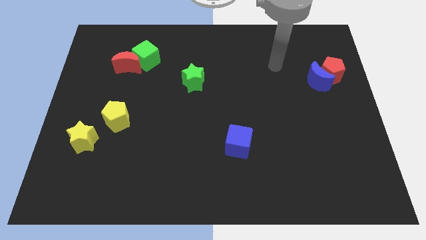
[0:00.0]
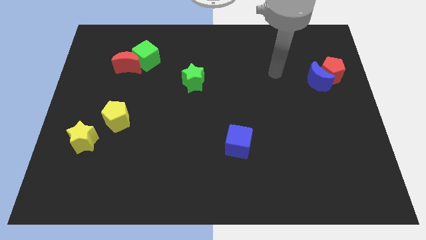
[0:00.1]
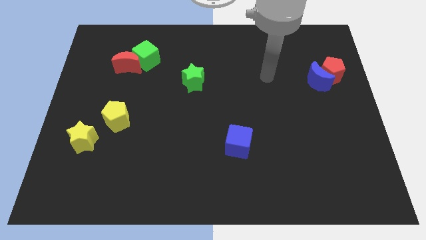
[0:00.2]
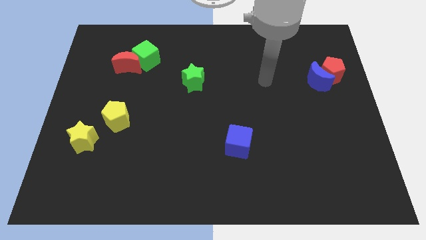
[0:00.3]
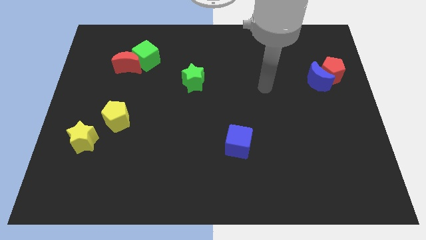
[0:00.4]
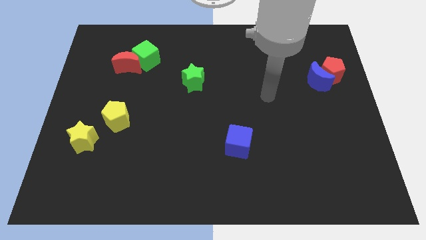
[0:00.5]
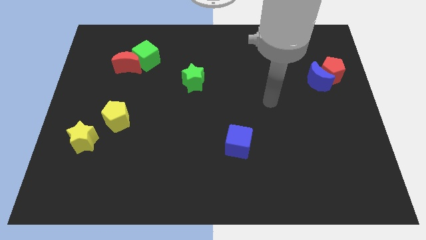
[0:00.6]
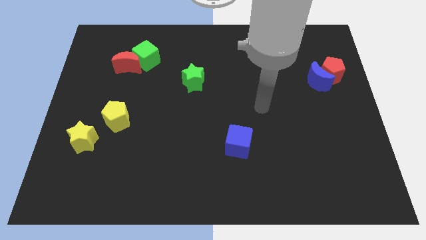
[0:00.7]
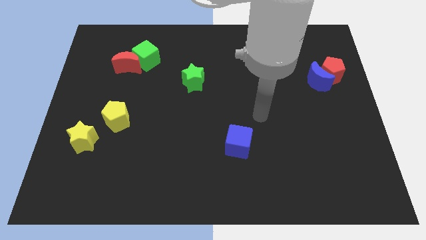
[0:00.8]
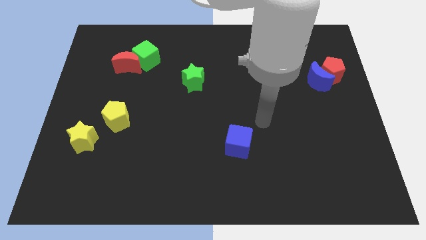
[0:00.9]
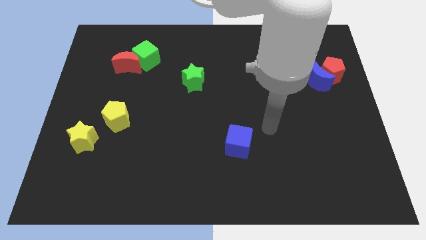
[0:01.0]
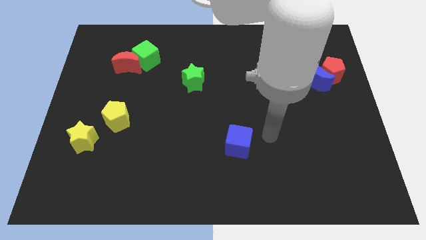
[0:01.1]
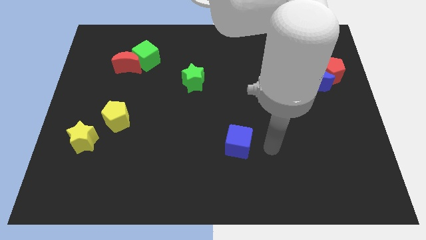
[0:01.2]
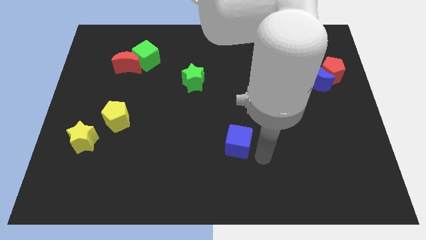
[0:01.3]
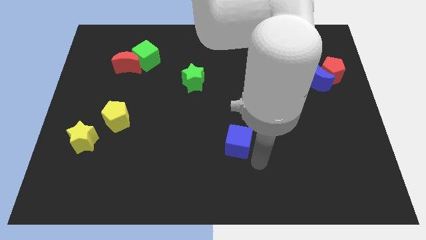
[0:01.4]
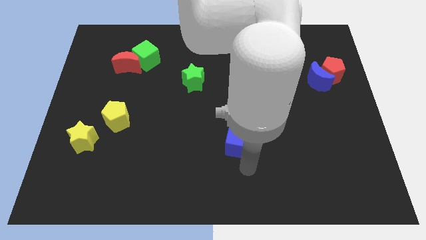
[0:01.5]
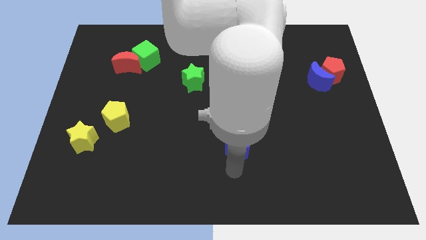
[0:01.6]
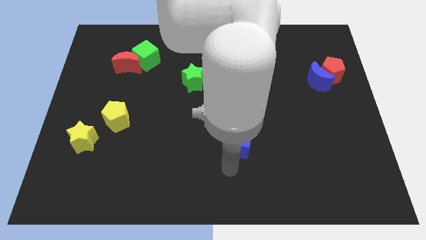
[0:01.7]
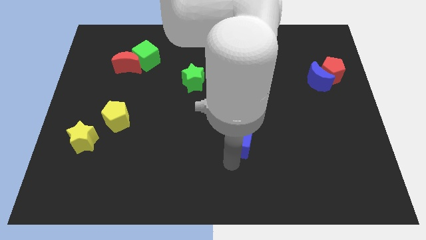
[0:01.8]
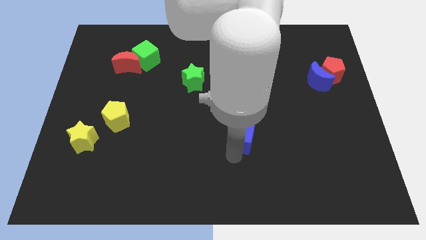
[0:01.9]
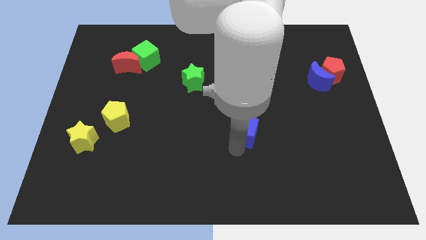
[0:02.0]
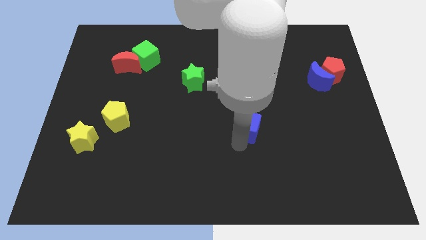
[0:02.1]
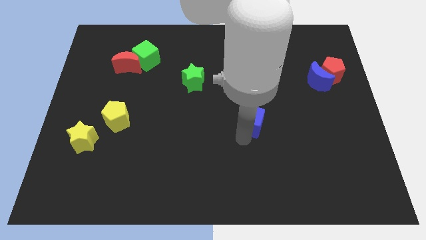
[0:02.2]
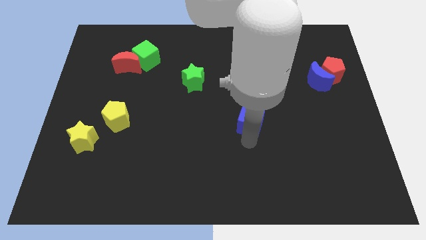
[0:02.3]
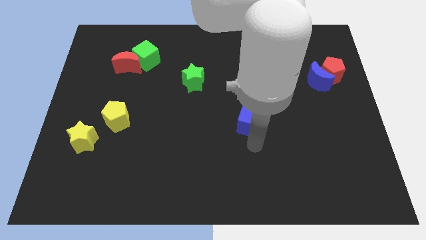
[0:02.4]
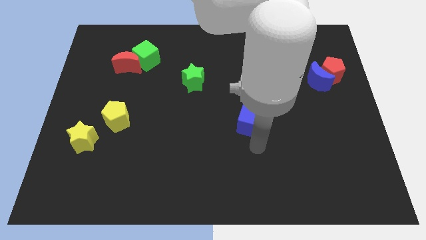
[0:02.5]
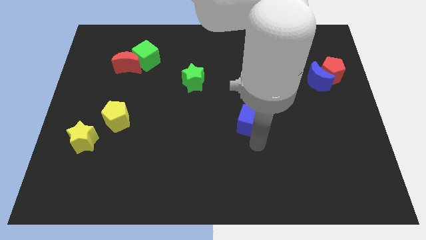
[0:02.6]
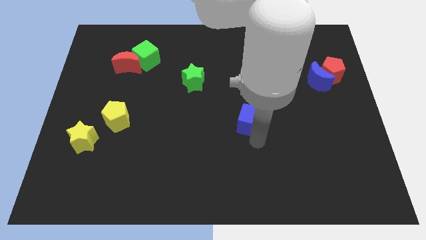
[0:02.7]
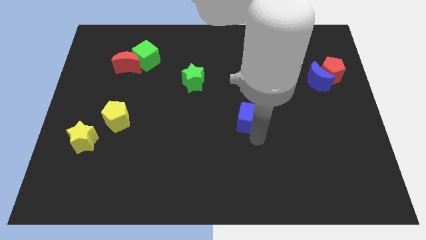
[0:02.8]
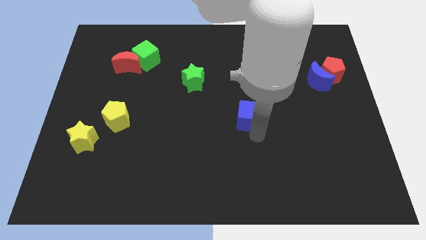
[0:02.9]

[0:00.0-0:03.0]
slightly slide the blue cube up

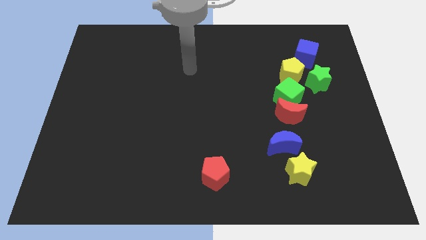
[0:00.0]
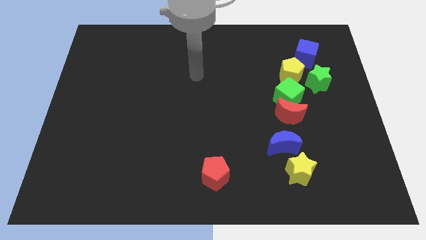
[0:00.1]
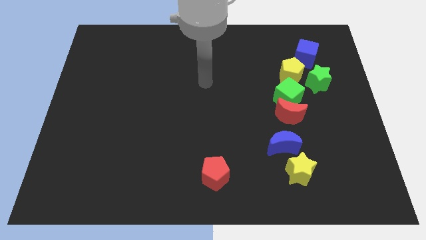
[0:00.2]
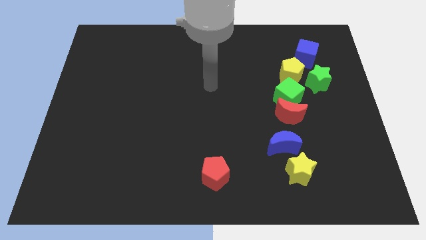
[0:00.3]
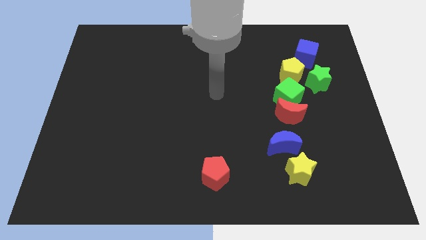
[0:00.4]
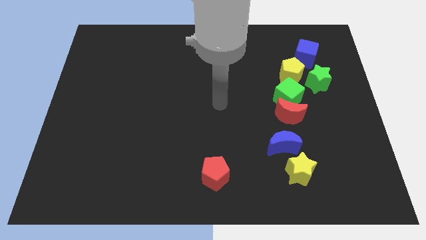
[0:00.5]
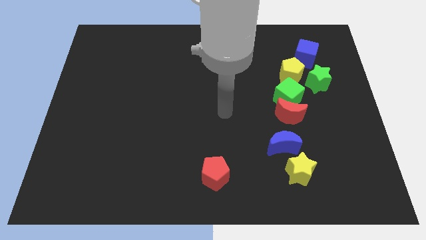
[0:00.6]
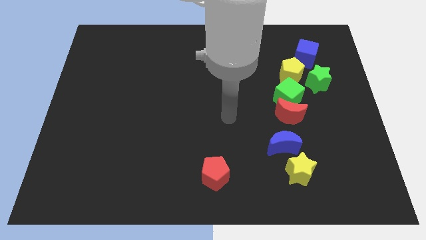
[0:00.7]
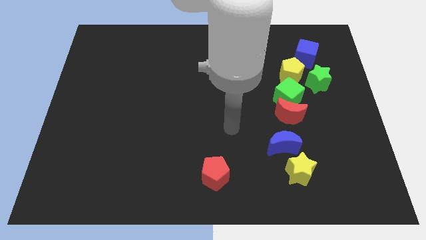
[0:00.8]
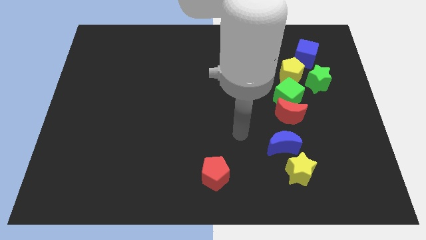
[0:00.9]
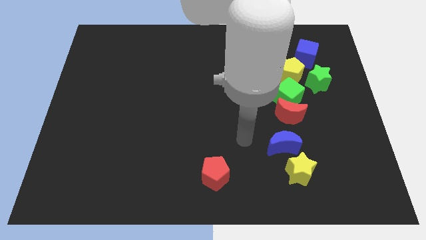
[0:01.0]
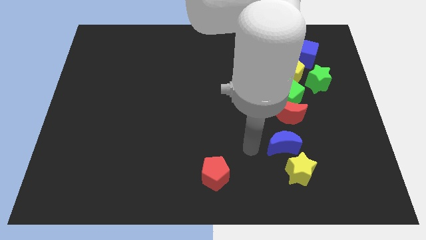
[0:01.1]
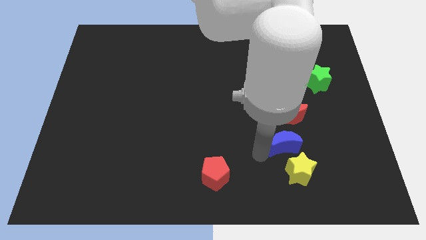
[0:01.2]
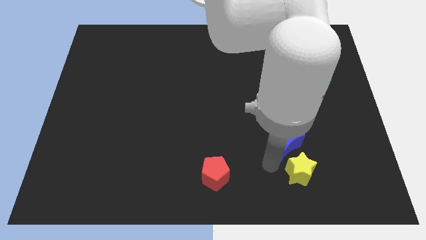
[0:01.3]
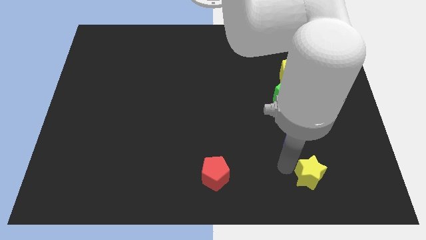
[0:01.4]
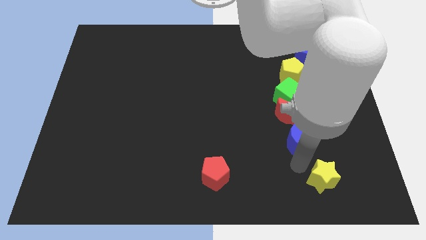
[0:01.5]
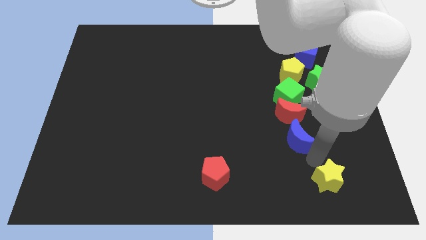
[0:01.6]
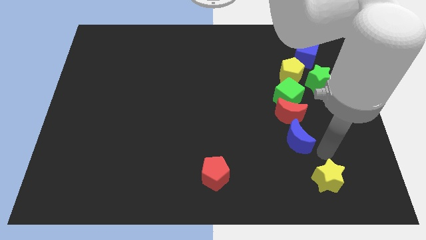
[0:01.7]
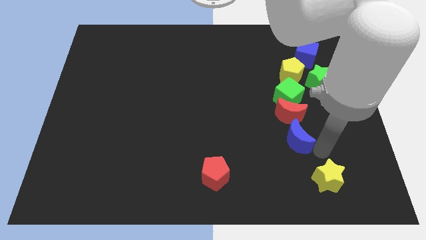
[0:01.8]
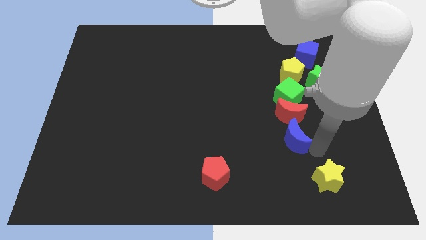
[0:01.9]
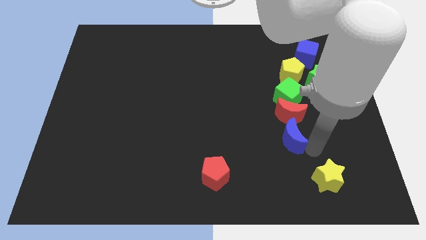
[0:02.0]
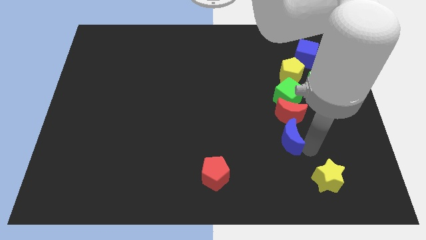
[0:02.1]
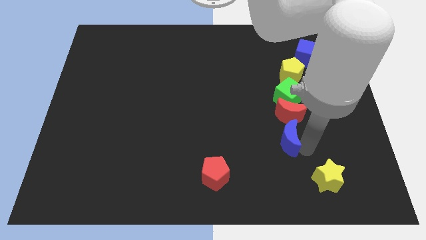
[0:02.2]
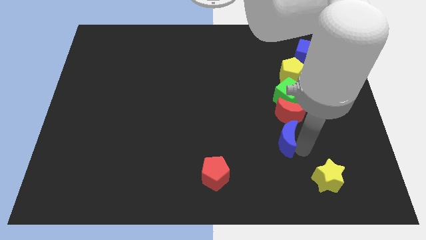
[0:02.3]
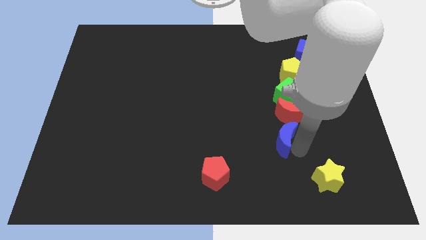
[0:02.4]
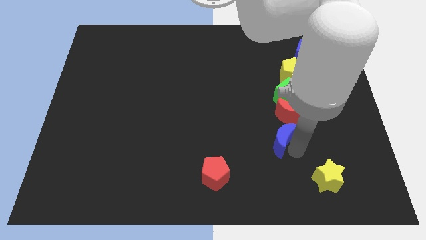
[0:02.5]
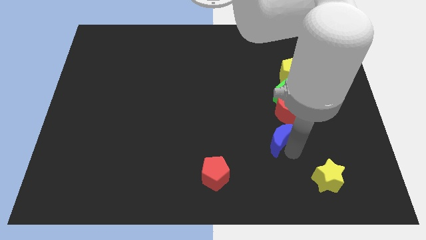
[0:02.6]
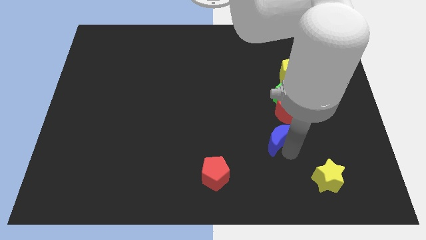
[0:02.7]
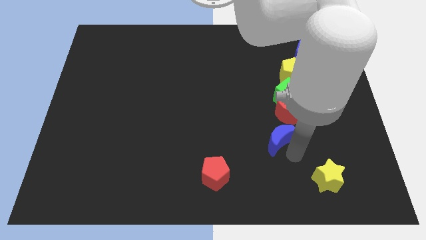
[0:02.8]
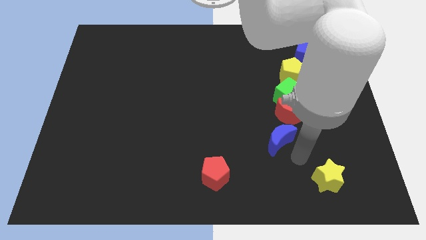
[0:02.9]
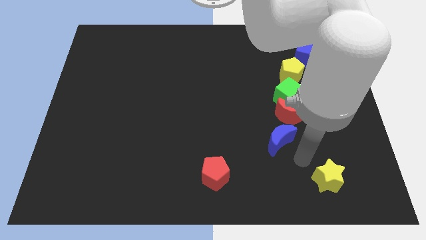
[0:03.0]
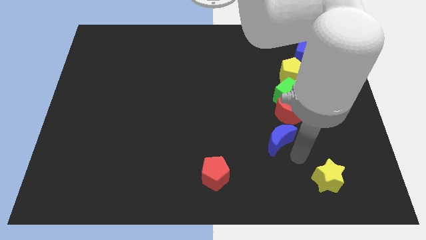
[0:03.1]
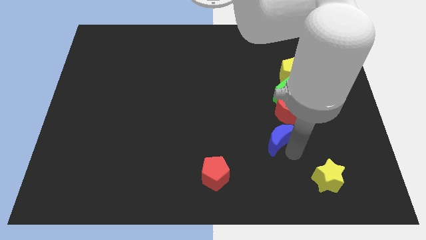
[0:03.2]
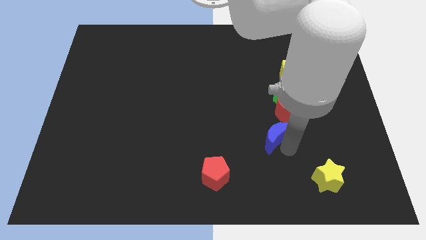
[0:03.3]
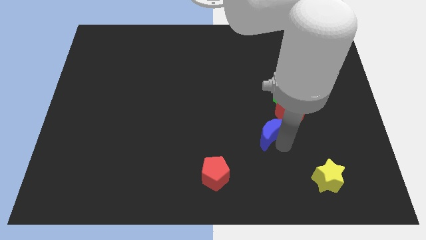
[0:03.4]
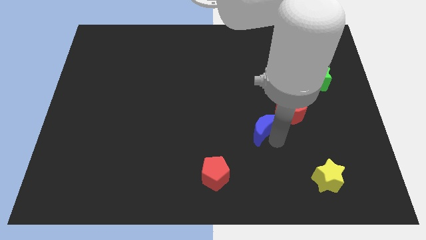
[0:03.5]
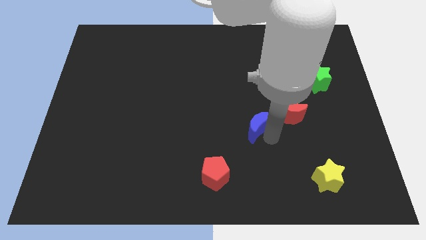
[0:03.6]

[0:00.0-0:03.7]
push the blue moon upwards and then to the left slightly

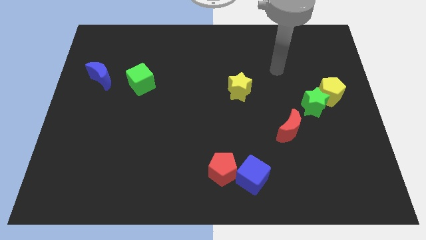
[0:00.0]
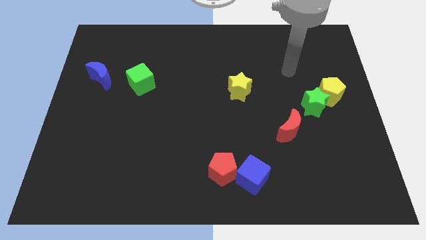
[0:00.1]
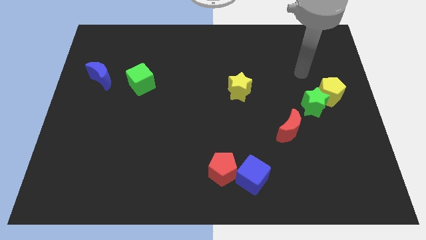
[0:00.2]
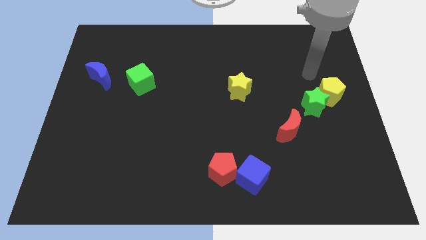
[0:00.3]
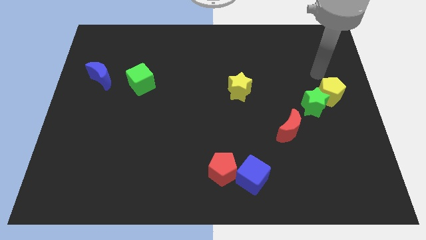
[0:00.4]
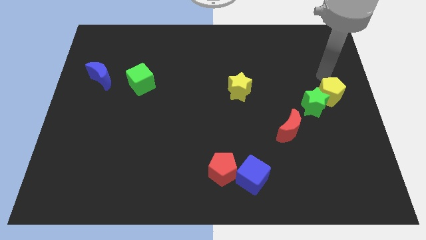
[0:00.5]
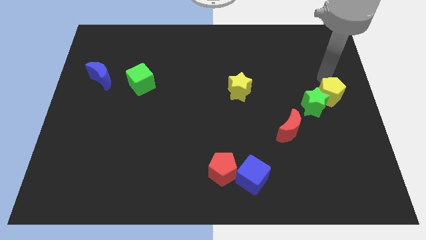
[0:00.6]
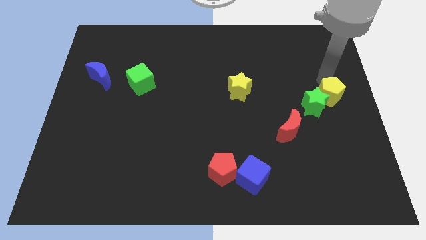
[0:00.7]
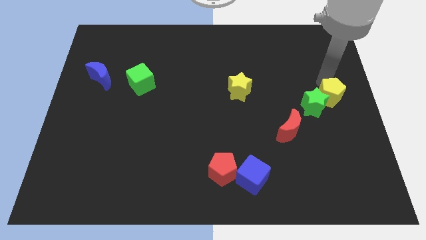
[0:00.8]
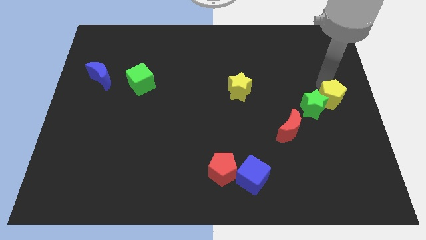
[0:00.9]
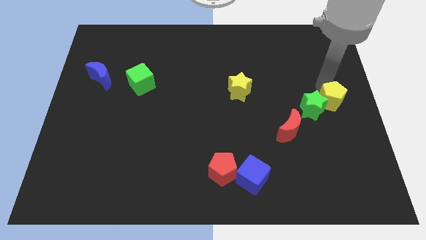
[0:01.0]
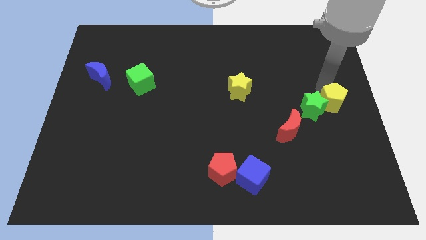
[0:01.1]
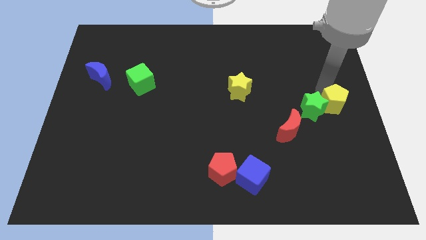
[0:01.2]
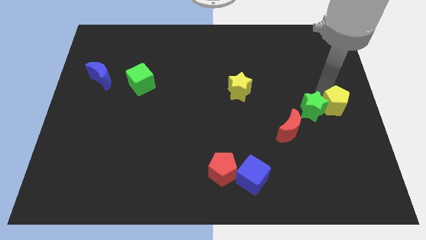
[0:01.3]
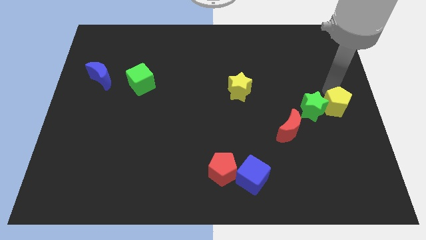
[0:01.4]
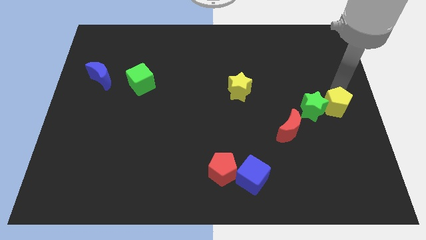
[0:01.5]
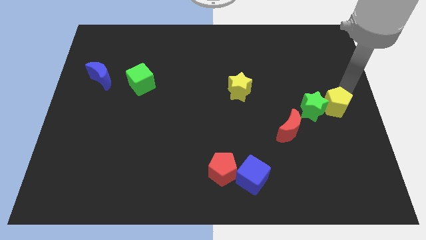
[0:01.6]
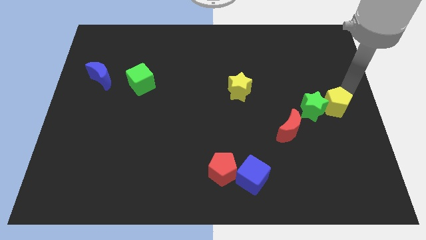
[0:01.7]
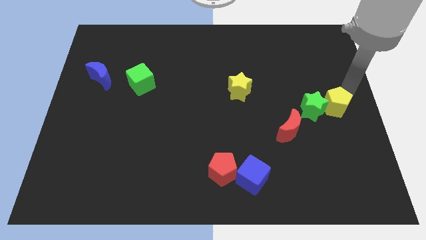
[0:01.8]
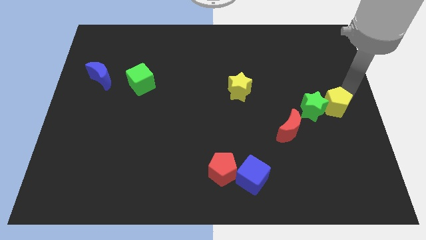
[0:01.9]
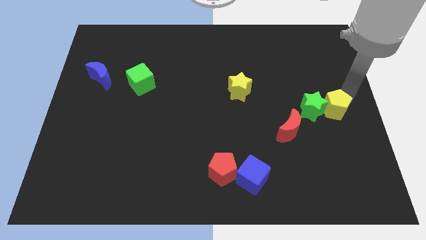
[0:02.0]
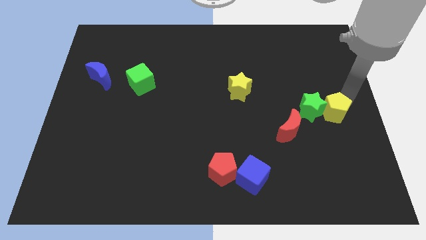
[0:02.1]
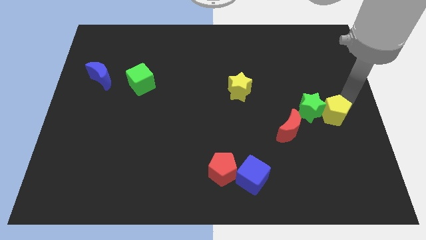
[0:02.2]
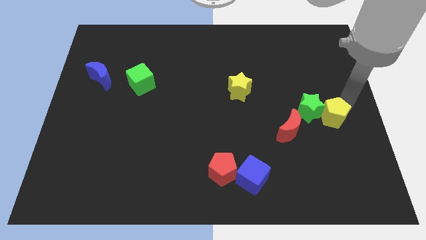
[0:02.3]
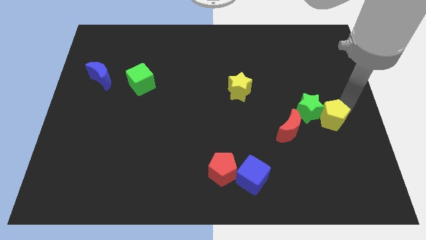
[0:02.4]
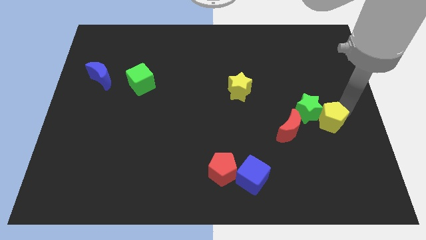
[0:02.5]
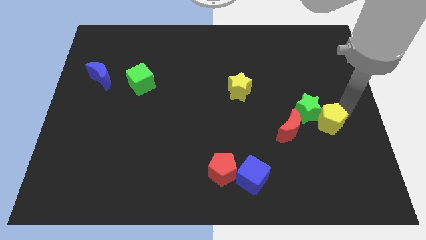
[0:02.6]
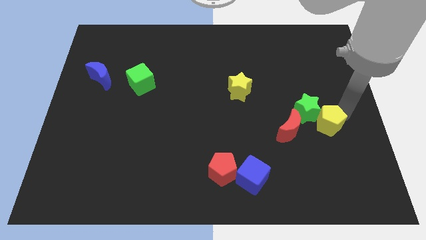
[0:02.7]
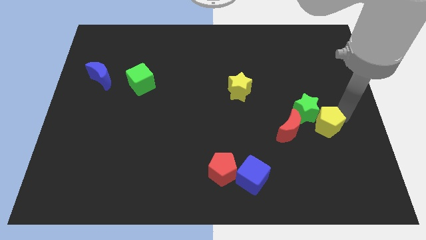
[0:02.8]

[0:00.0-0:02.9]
move the yellow pentagon a little diagonally downwards and left
